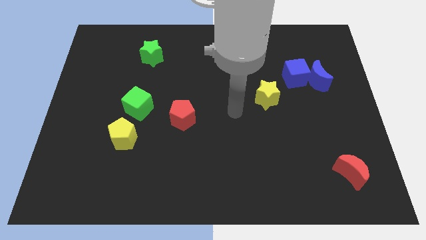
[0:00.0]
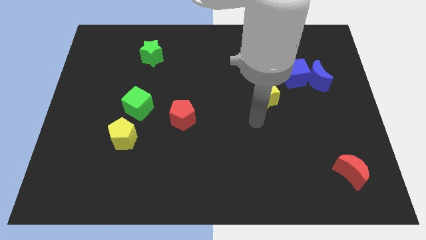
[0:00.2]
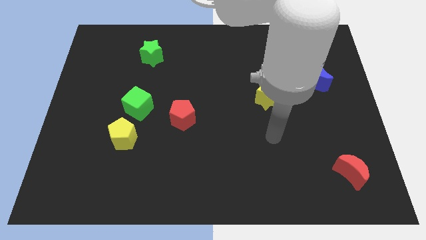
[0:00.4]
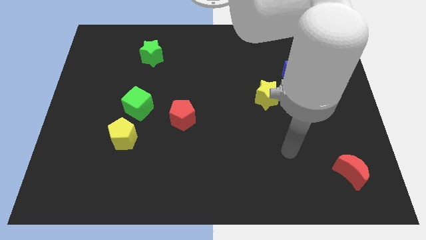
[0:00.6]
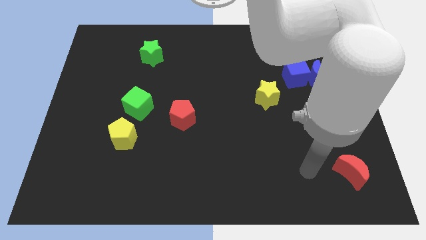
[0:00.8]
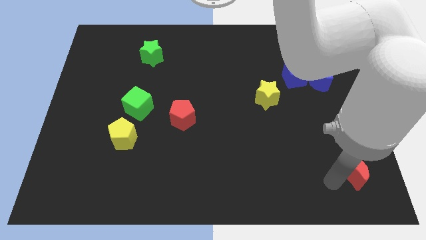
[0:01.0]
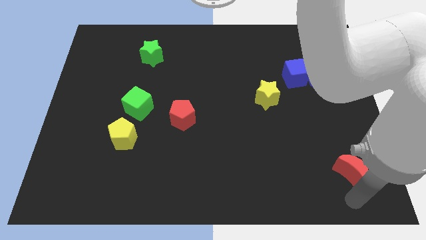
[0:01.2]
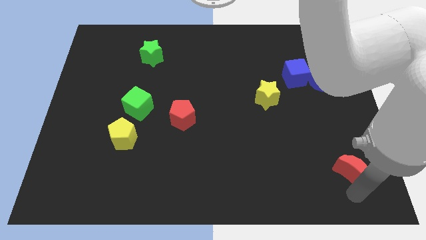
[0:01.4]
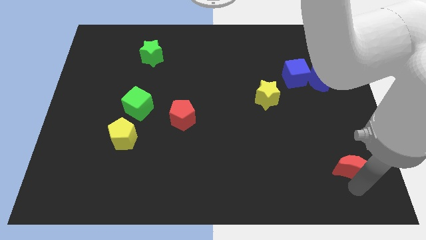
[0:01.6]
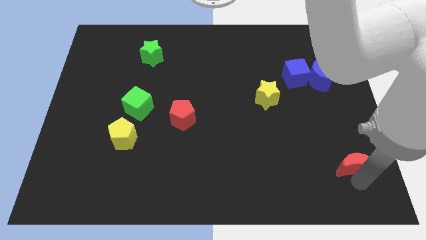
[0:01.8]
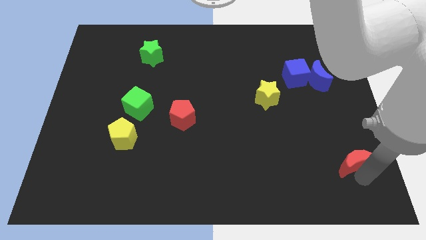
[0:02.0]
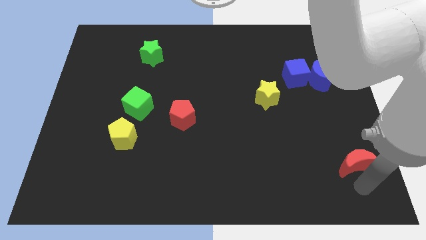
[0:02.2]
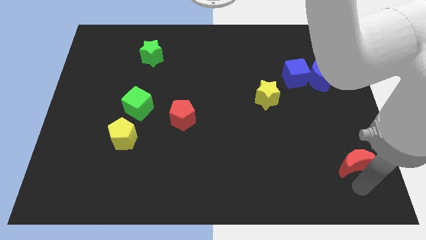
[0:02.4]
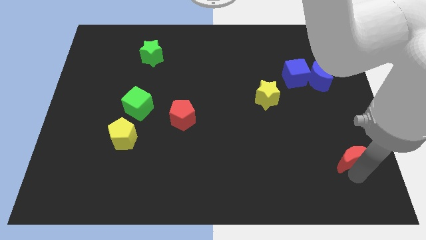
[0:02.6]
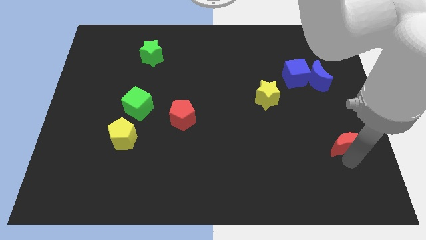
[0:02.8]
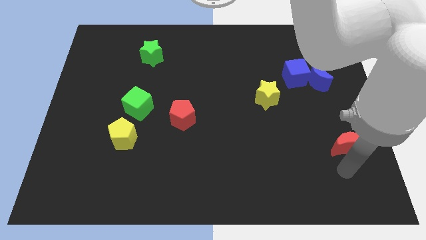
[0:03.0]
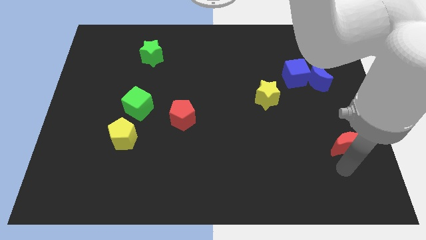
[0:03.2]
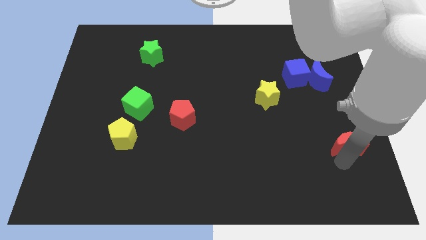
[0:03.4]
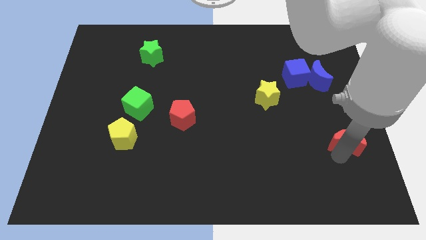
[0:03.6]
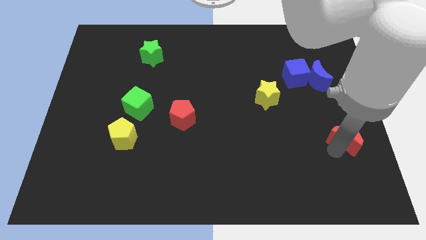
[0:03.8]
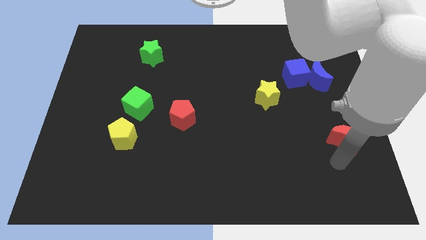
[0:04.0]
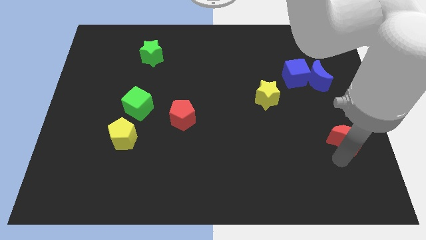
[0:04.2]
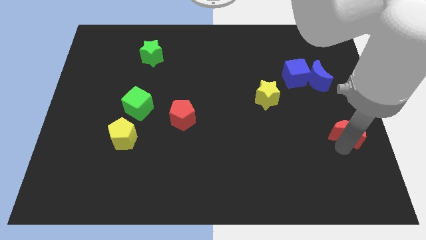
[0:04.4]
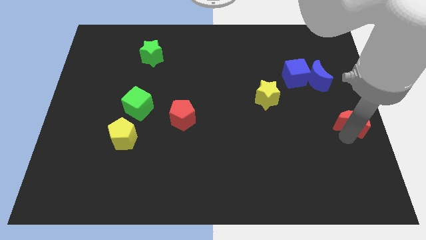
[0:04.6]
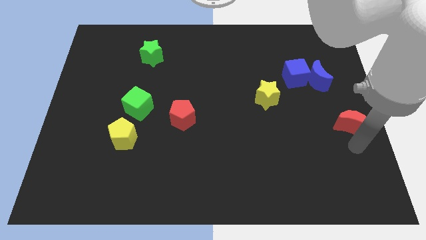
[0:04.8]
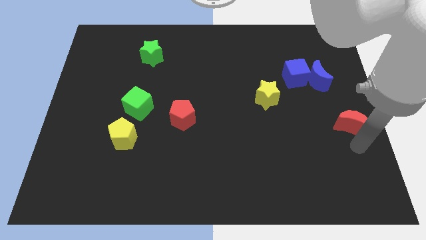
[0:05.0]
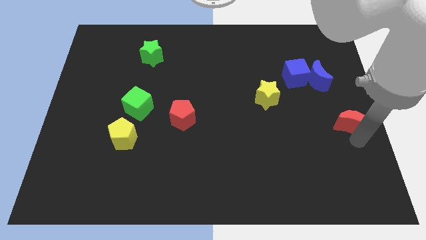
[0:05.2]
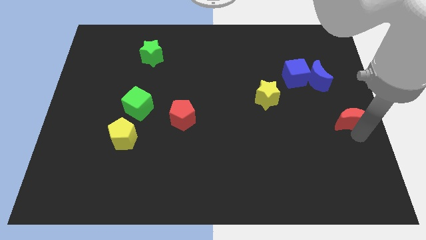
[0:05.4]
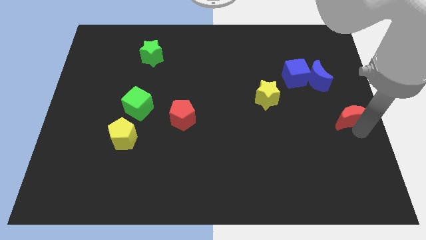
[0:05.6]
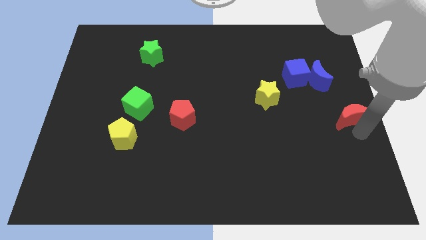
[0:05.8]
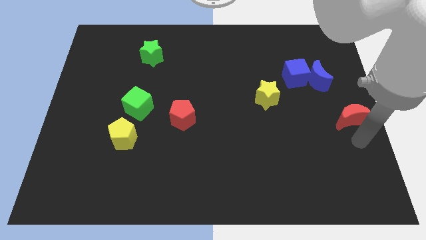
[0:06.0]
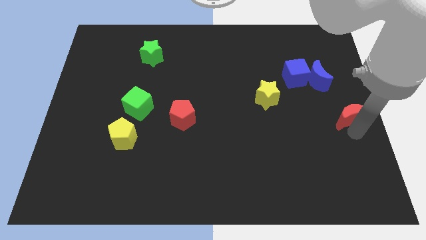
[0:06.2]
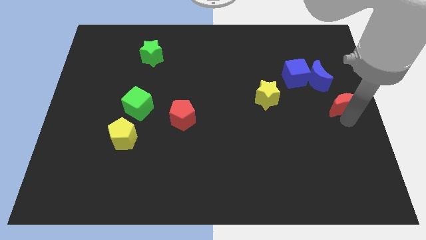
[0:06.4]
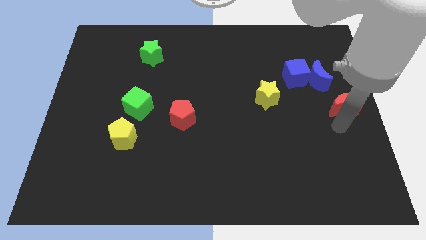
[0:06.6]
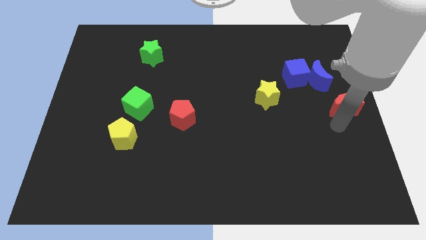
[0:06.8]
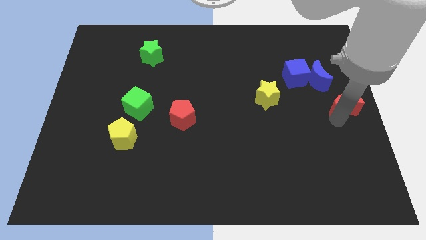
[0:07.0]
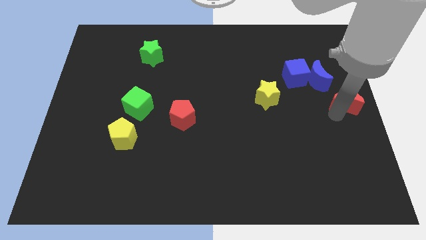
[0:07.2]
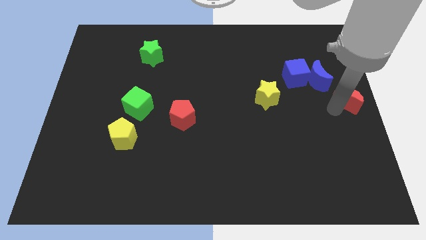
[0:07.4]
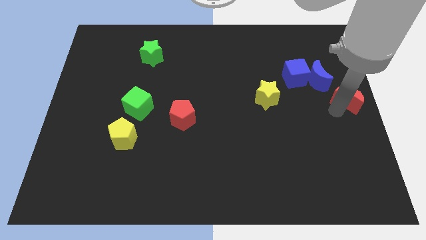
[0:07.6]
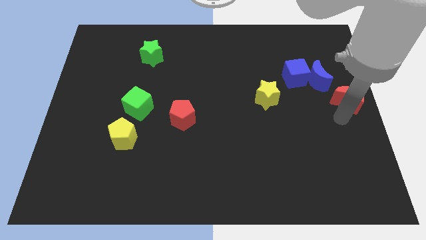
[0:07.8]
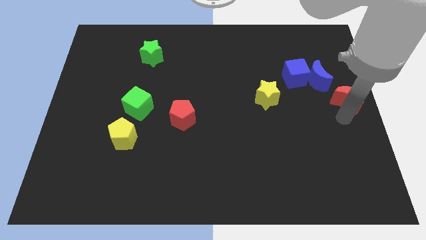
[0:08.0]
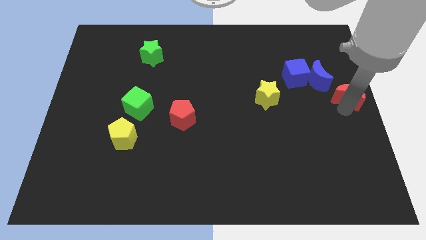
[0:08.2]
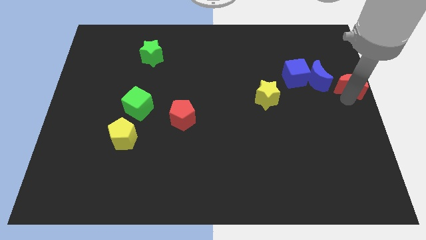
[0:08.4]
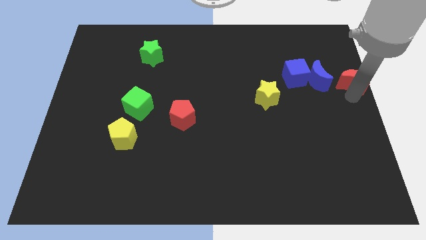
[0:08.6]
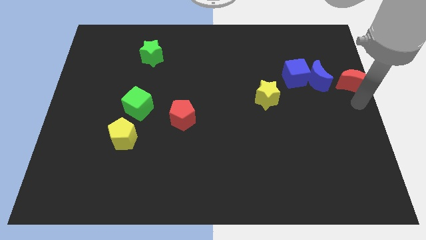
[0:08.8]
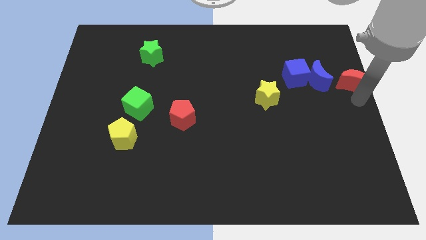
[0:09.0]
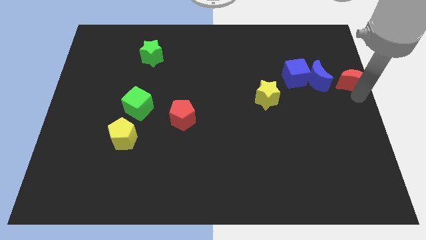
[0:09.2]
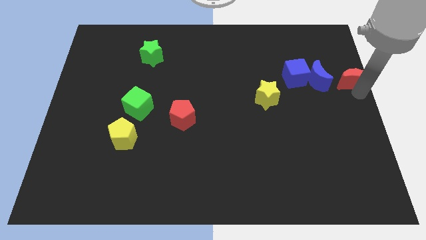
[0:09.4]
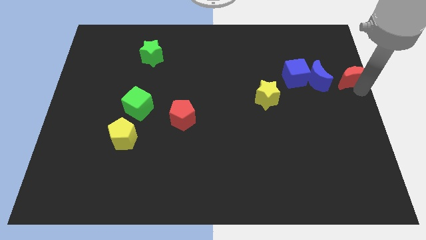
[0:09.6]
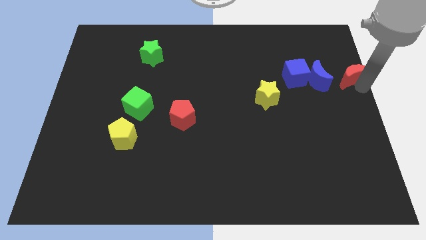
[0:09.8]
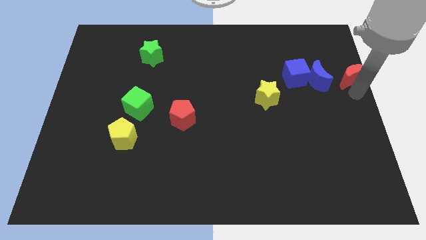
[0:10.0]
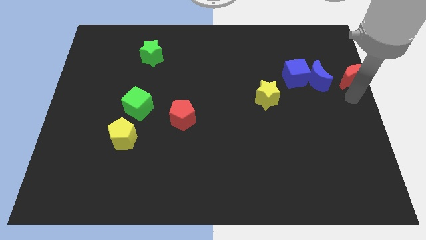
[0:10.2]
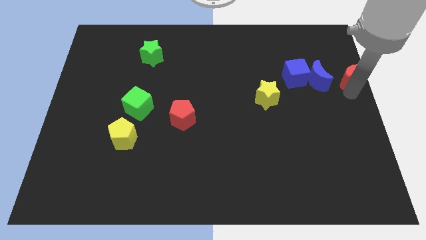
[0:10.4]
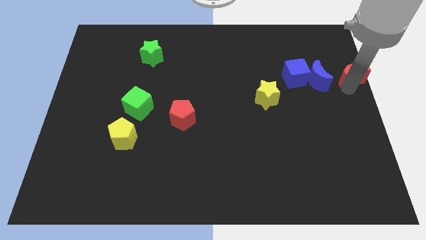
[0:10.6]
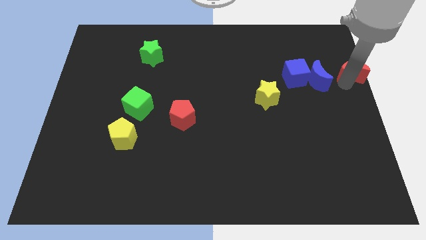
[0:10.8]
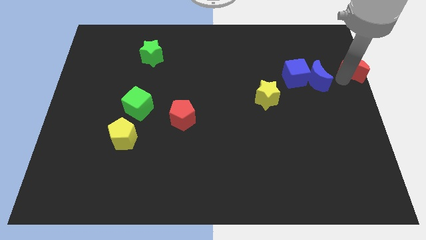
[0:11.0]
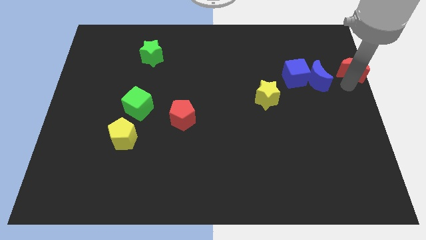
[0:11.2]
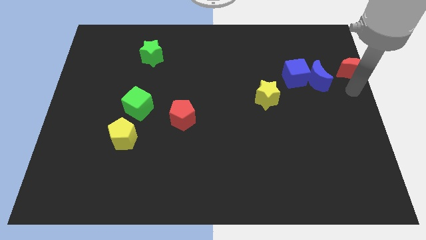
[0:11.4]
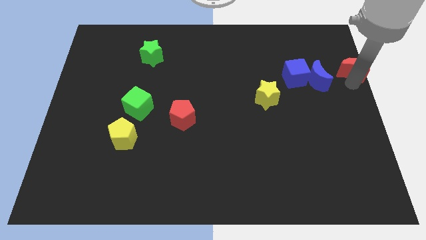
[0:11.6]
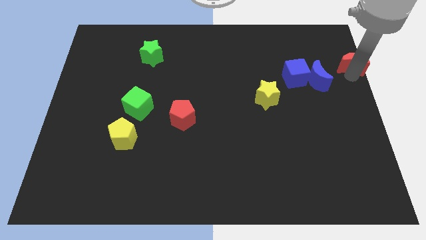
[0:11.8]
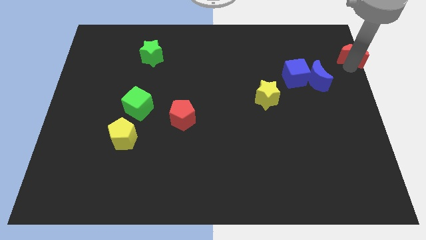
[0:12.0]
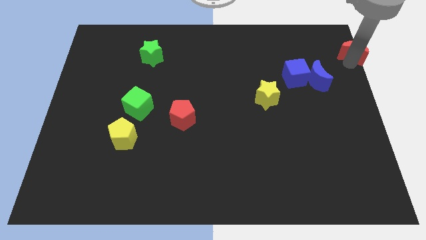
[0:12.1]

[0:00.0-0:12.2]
move the red moon to the top right of the board

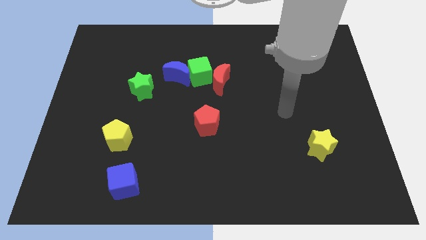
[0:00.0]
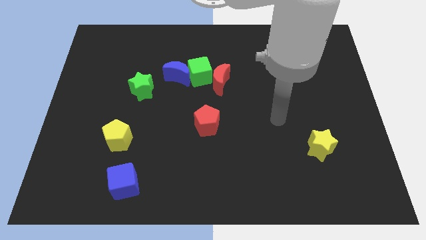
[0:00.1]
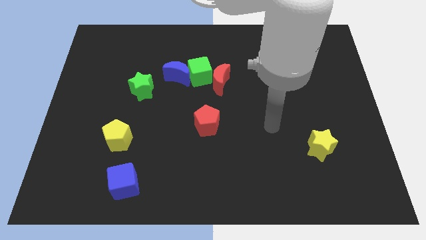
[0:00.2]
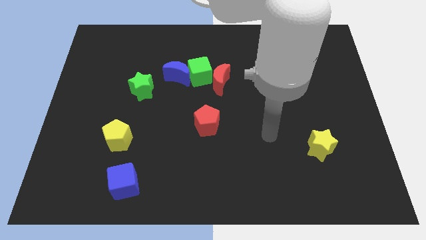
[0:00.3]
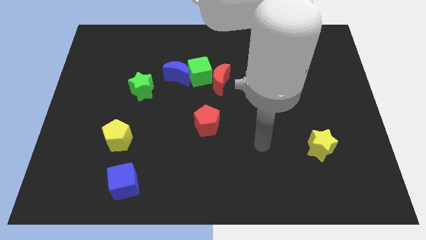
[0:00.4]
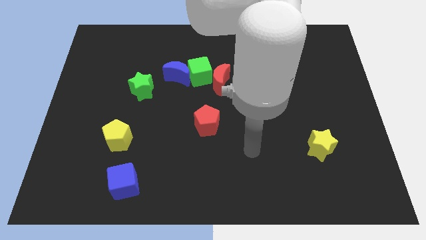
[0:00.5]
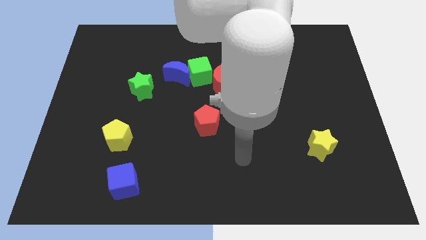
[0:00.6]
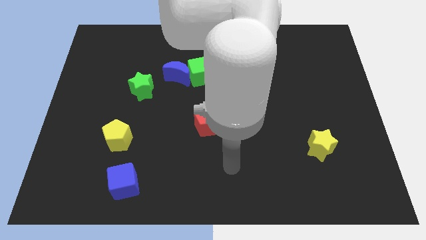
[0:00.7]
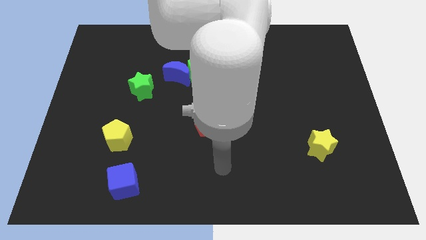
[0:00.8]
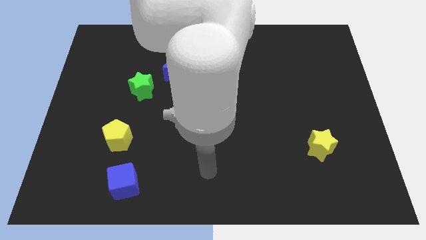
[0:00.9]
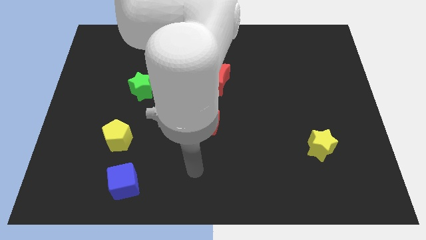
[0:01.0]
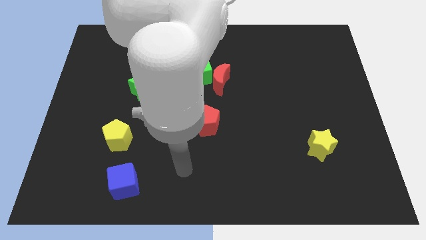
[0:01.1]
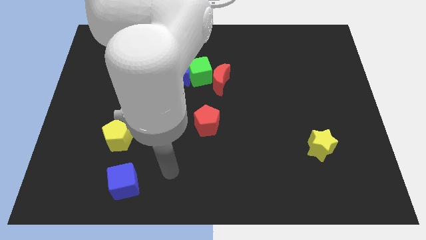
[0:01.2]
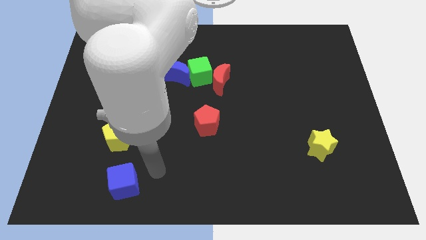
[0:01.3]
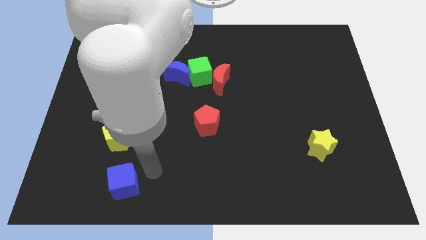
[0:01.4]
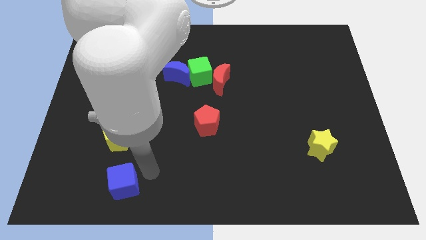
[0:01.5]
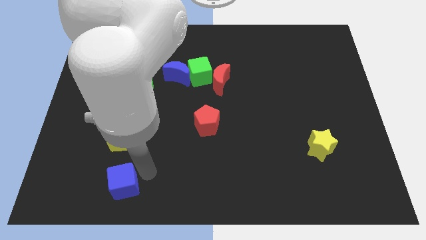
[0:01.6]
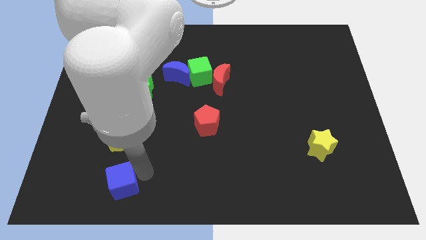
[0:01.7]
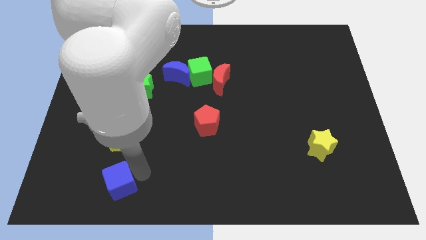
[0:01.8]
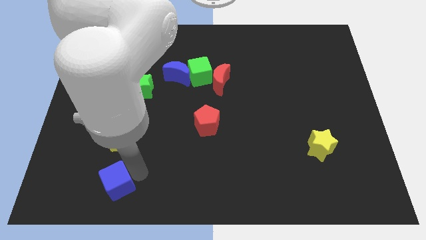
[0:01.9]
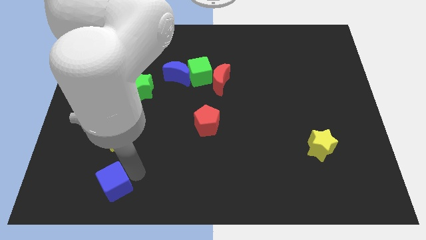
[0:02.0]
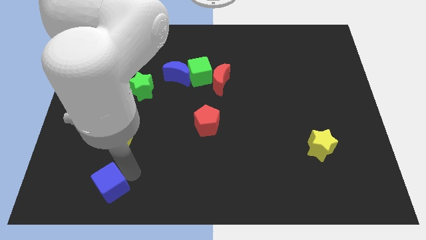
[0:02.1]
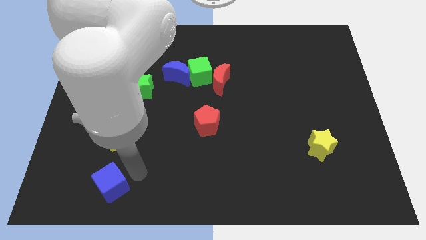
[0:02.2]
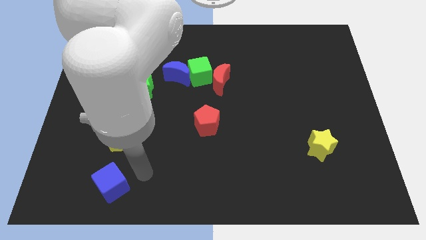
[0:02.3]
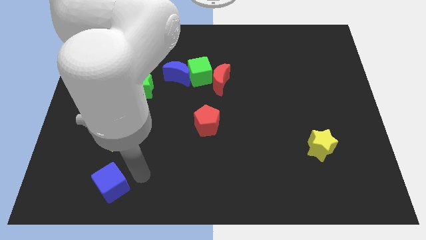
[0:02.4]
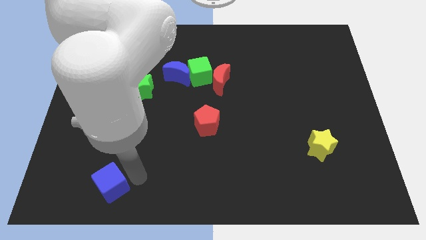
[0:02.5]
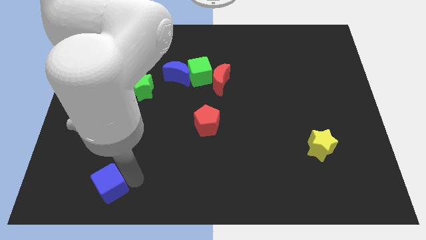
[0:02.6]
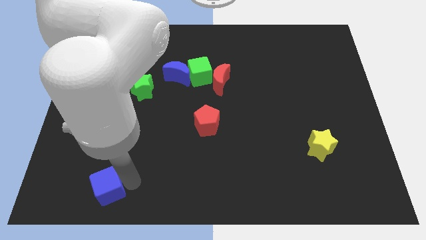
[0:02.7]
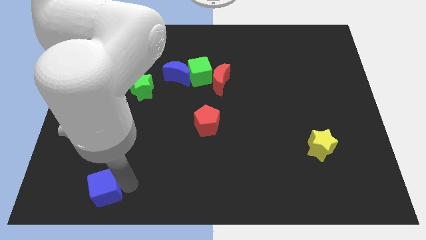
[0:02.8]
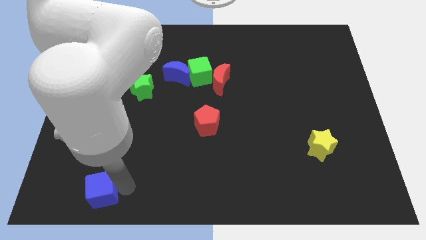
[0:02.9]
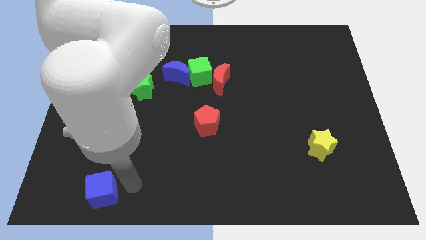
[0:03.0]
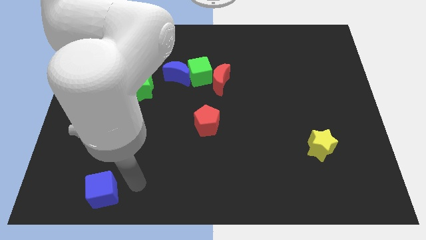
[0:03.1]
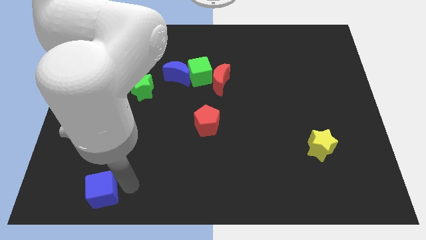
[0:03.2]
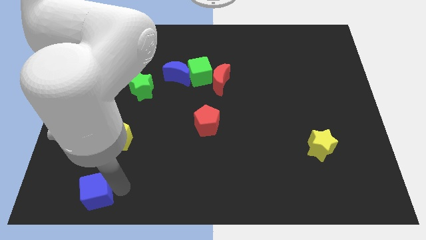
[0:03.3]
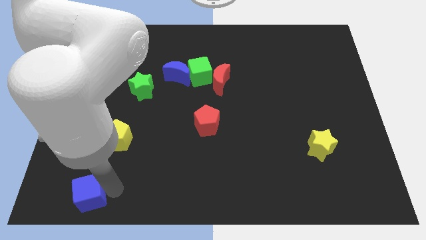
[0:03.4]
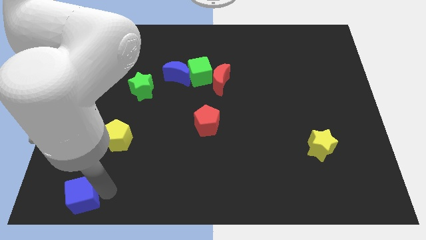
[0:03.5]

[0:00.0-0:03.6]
move the blue cube to the bottom left of the board
